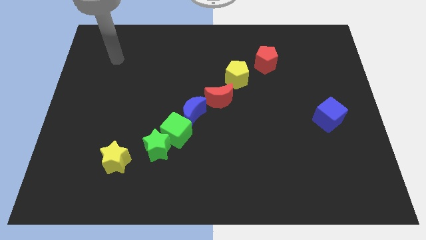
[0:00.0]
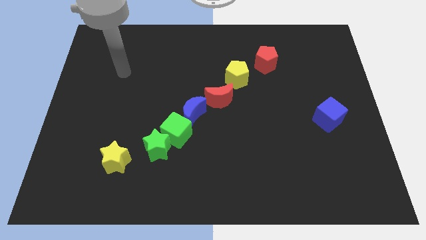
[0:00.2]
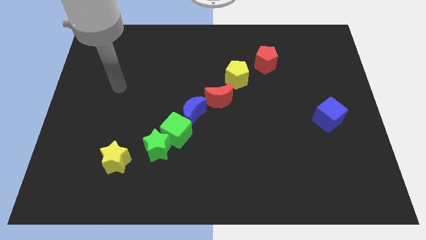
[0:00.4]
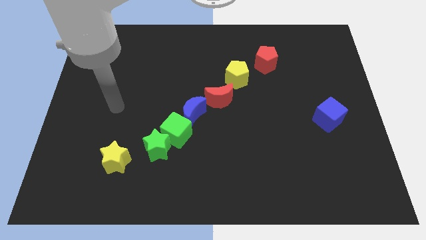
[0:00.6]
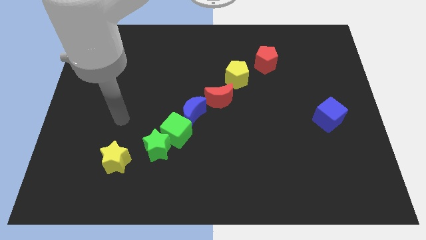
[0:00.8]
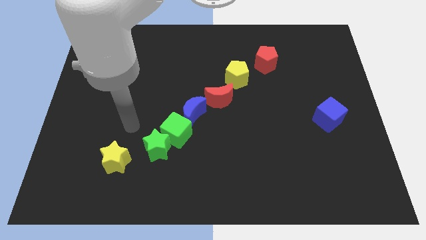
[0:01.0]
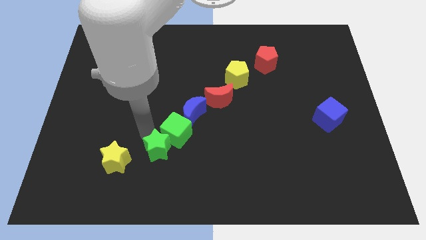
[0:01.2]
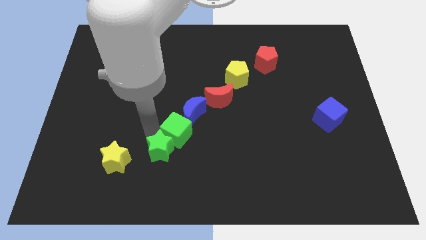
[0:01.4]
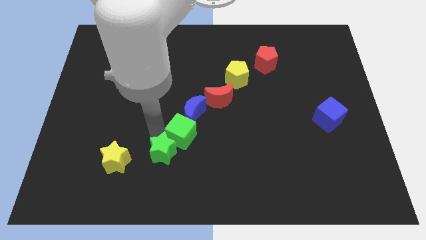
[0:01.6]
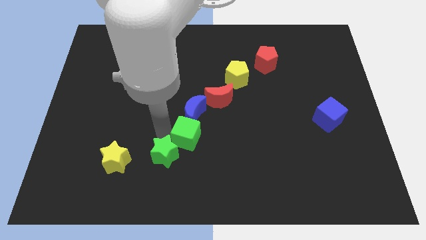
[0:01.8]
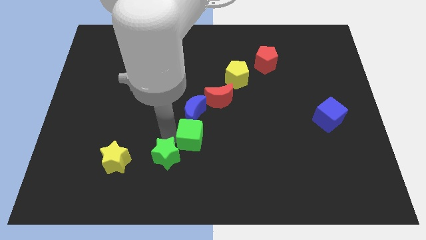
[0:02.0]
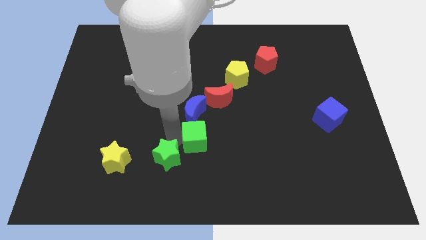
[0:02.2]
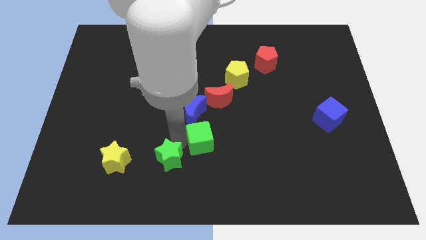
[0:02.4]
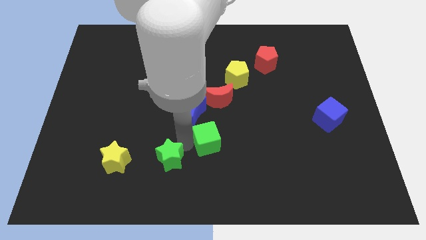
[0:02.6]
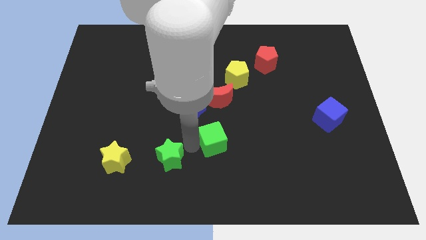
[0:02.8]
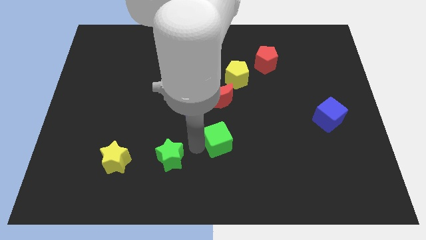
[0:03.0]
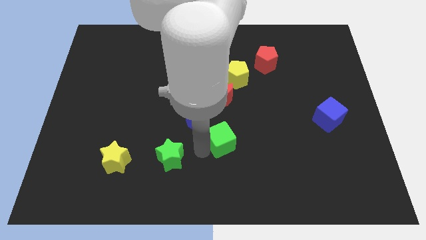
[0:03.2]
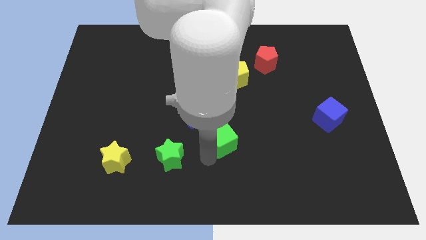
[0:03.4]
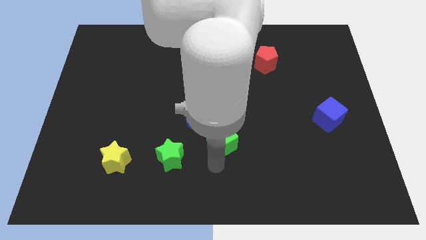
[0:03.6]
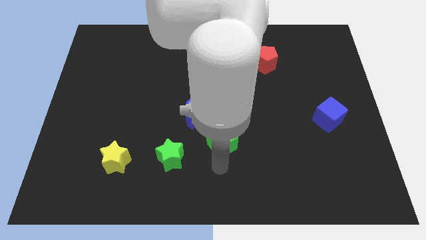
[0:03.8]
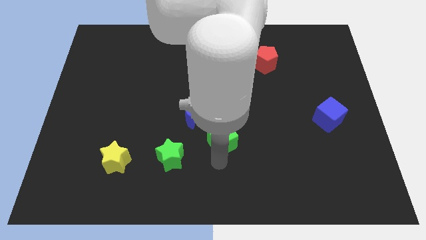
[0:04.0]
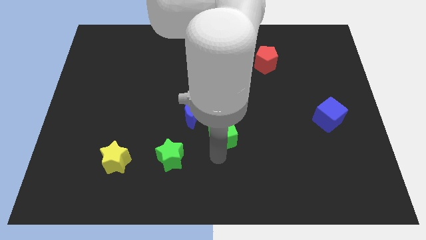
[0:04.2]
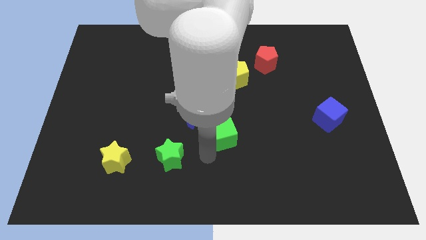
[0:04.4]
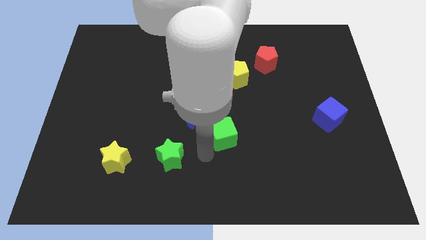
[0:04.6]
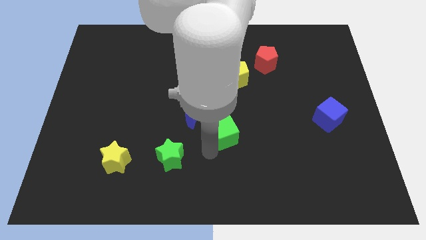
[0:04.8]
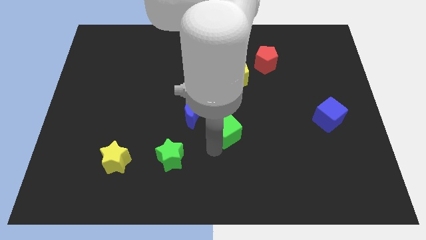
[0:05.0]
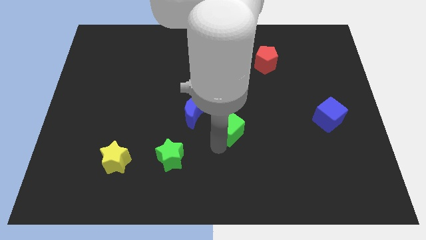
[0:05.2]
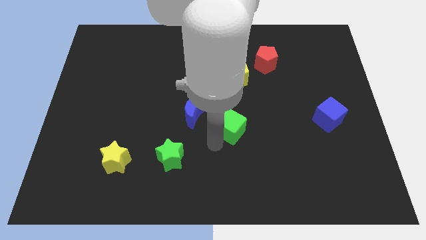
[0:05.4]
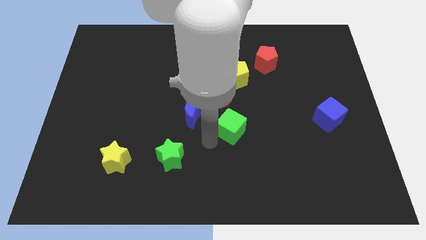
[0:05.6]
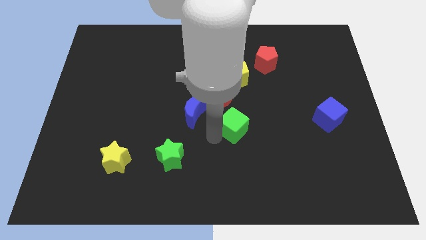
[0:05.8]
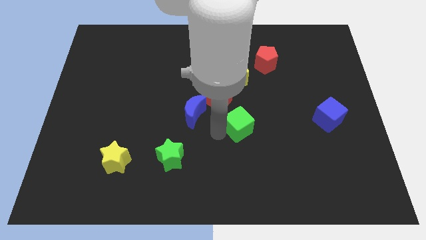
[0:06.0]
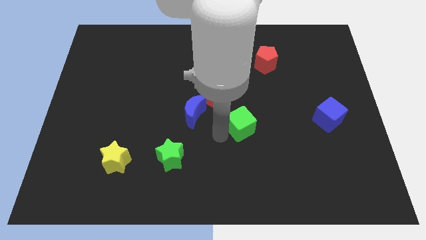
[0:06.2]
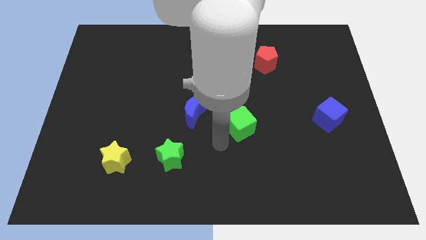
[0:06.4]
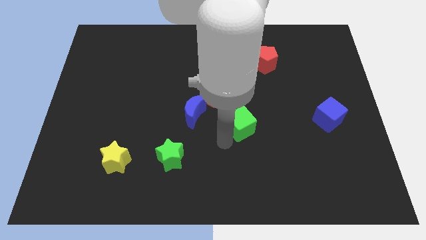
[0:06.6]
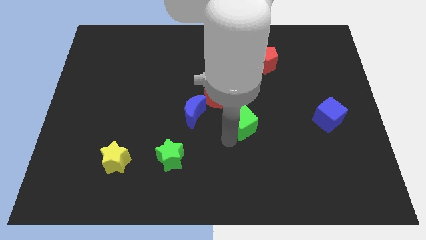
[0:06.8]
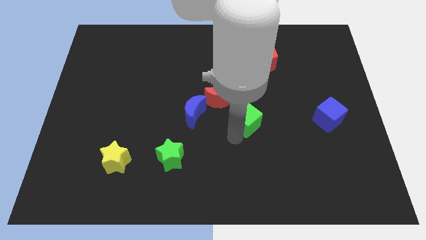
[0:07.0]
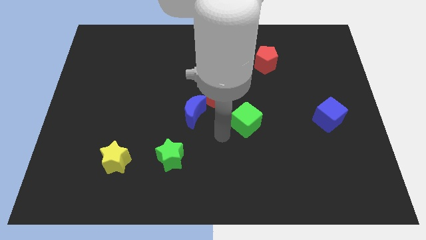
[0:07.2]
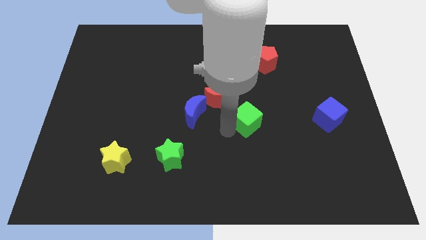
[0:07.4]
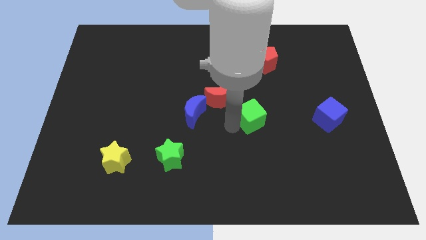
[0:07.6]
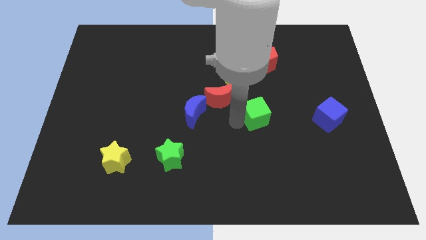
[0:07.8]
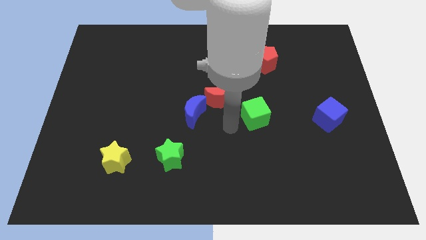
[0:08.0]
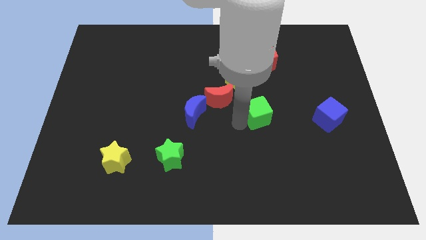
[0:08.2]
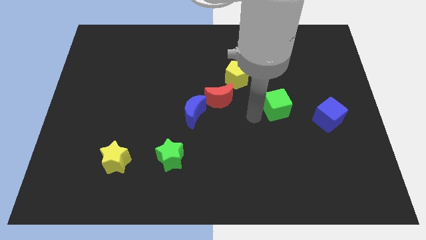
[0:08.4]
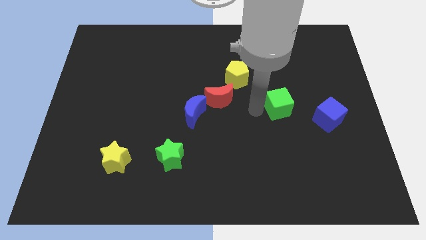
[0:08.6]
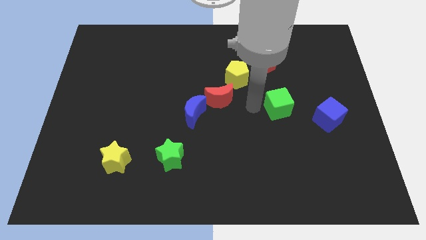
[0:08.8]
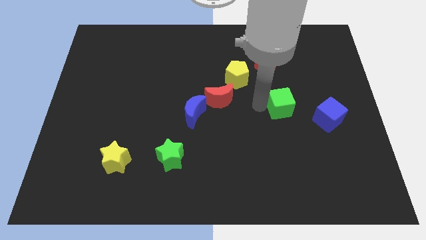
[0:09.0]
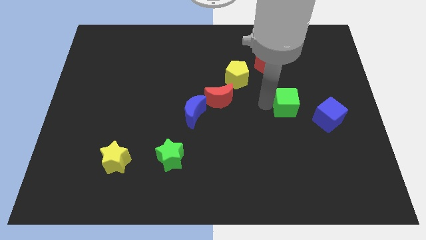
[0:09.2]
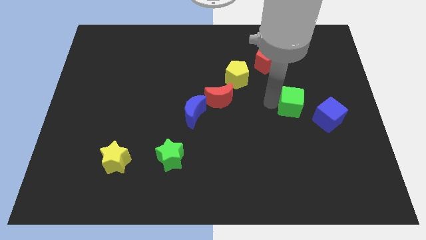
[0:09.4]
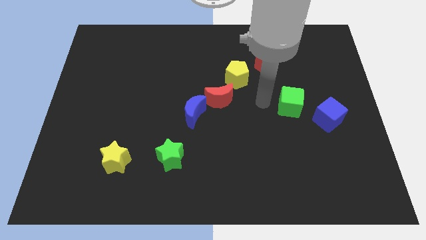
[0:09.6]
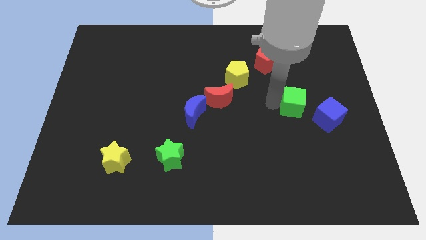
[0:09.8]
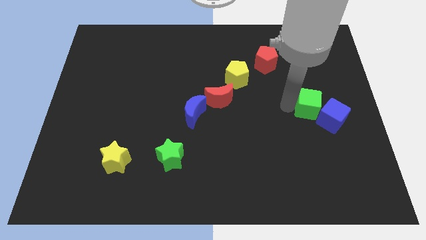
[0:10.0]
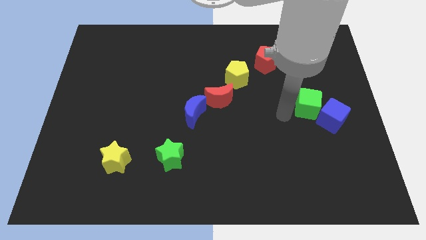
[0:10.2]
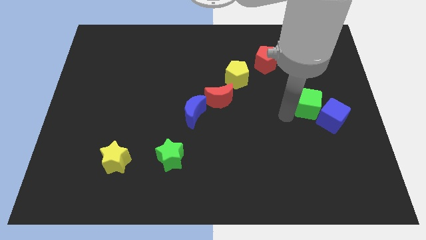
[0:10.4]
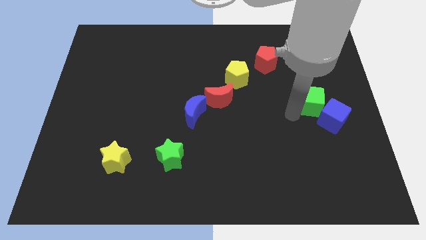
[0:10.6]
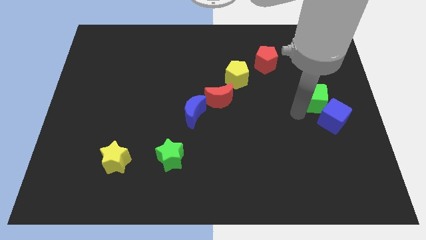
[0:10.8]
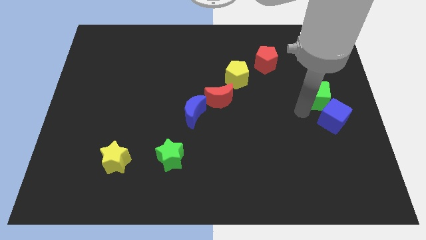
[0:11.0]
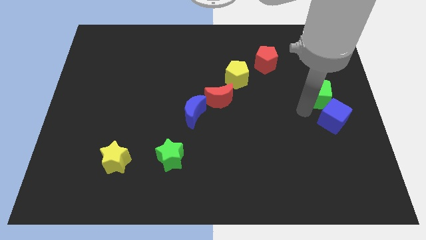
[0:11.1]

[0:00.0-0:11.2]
move the green cube to the right side

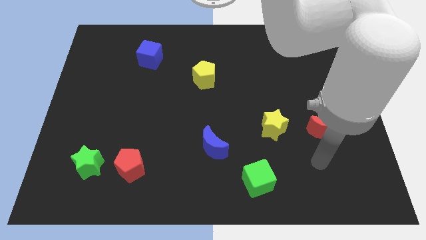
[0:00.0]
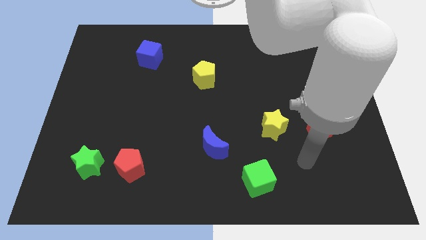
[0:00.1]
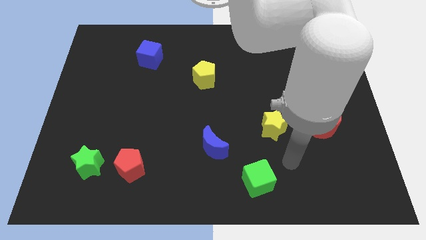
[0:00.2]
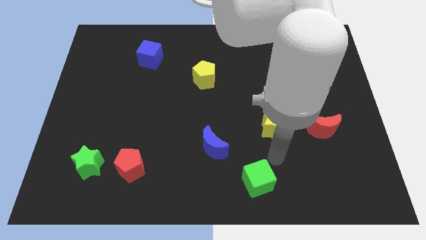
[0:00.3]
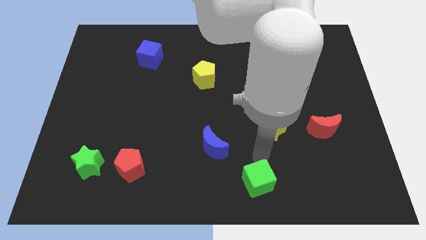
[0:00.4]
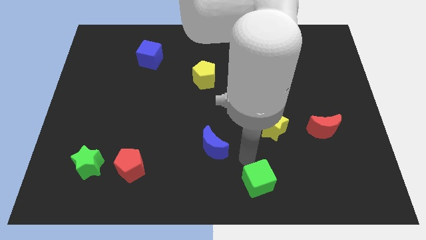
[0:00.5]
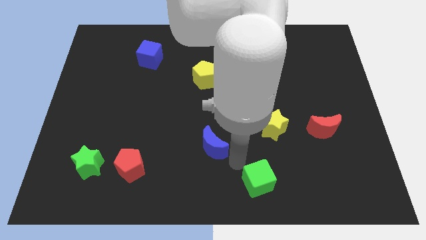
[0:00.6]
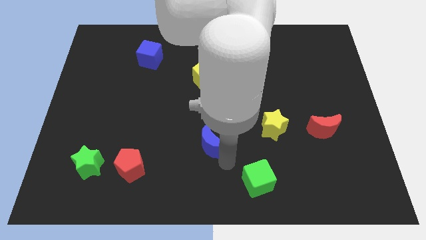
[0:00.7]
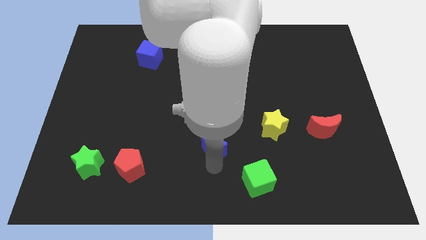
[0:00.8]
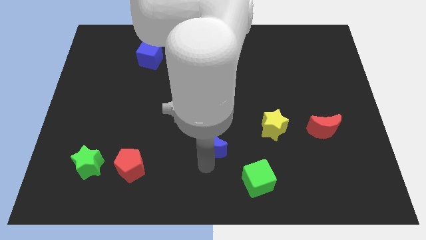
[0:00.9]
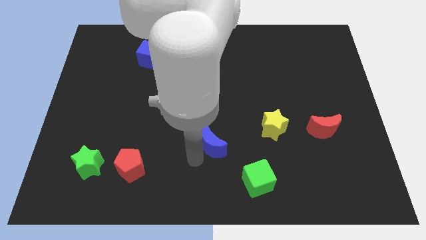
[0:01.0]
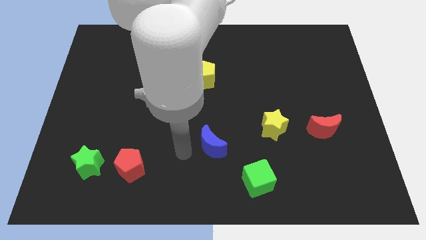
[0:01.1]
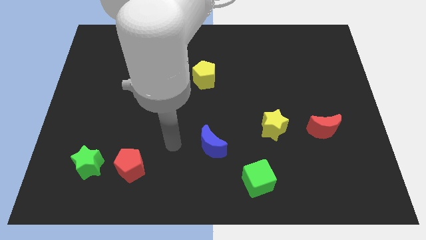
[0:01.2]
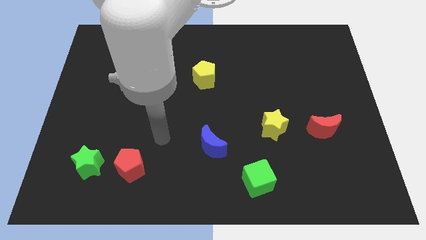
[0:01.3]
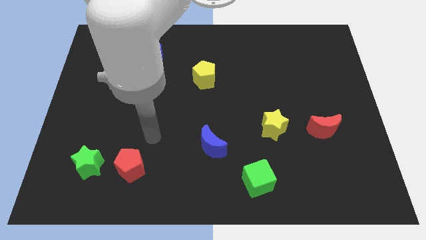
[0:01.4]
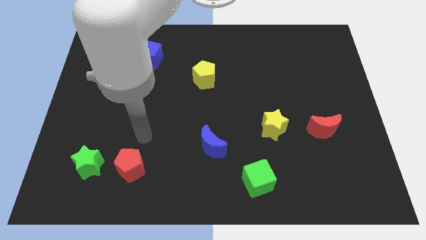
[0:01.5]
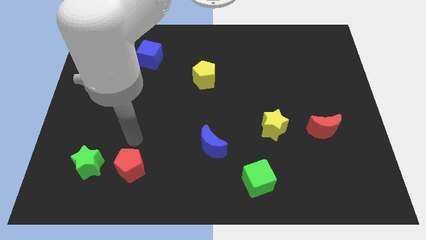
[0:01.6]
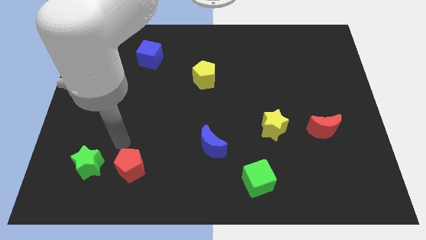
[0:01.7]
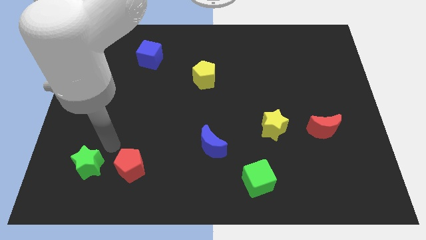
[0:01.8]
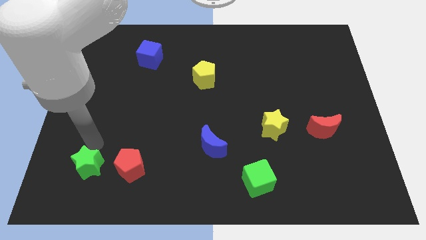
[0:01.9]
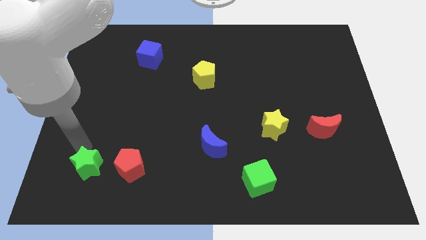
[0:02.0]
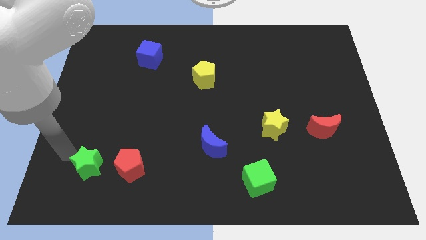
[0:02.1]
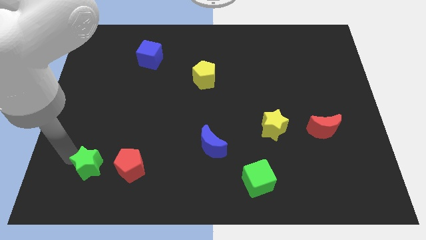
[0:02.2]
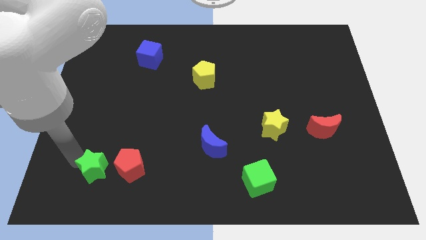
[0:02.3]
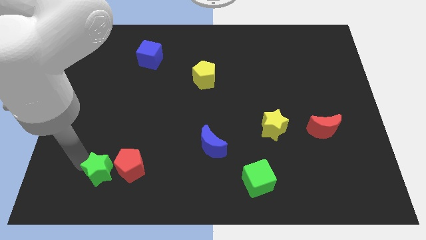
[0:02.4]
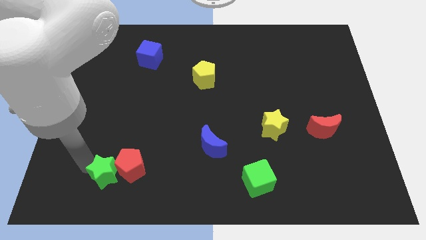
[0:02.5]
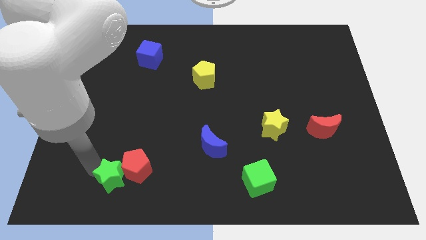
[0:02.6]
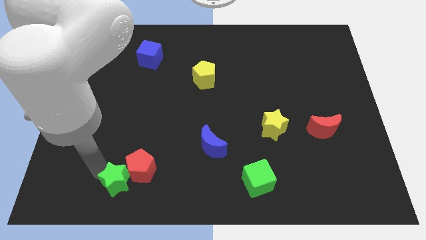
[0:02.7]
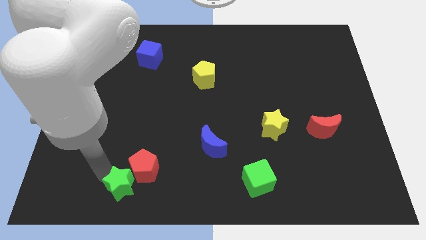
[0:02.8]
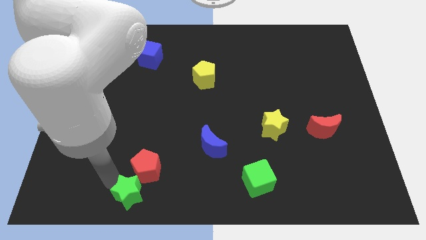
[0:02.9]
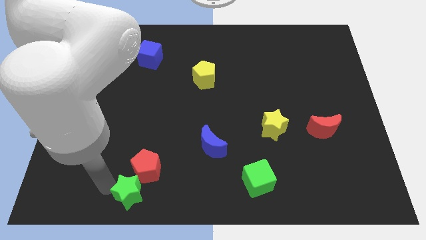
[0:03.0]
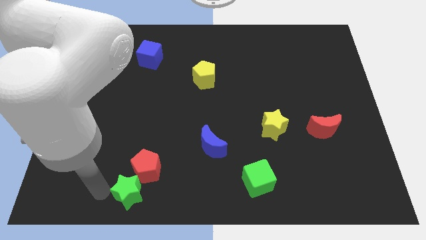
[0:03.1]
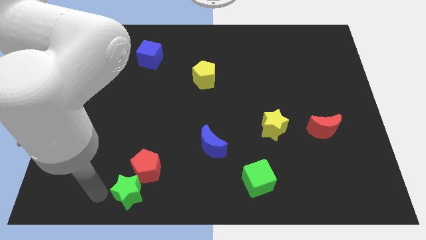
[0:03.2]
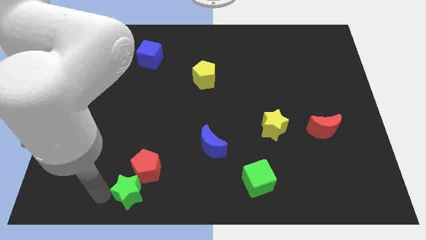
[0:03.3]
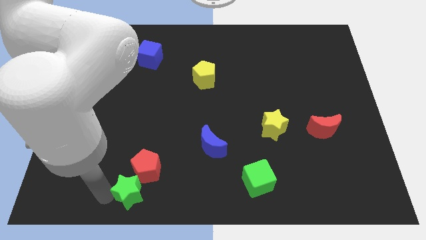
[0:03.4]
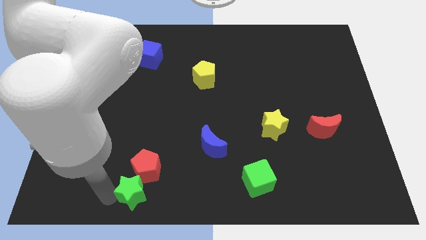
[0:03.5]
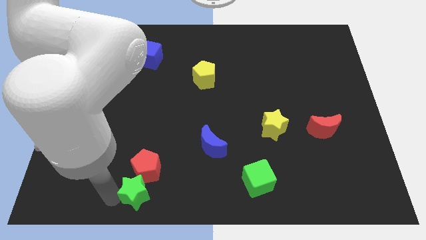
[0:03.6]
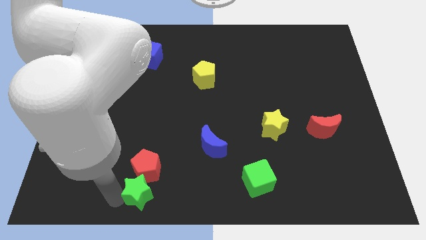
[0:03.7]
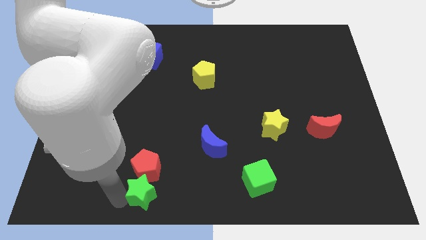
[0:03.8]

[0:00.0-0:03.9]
push the green star to the bottom side
